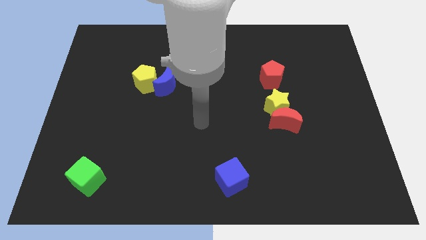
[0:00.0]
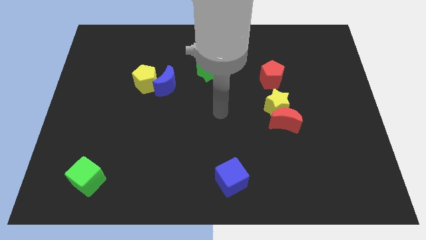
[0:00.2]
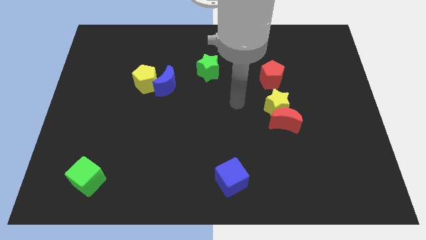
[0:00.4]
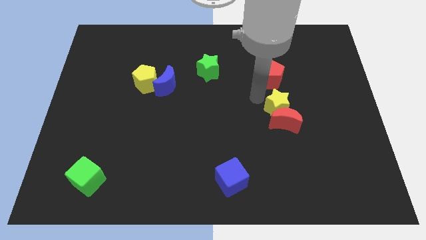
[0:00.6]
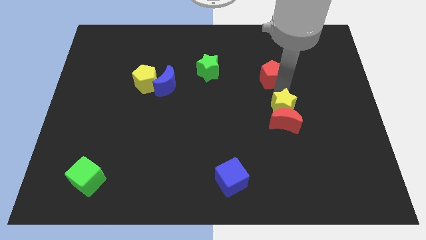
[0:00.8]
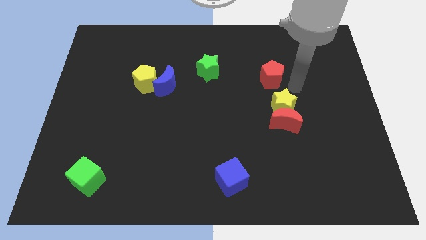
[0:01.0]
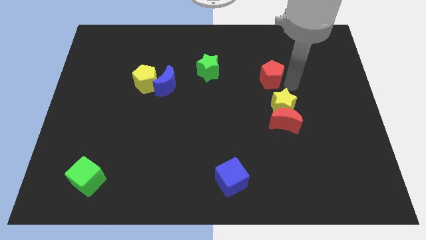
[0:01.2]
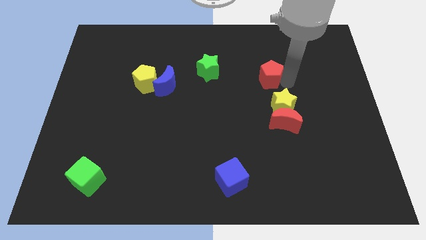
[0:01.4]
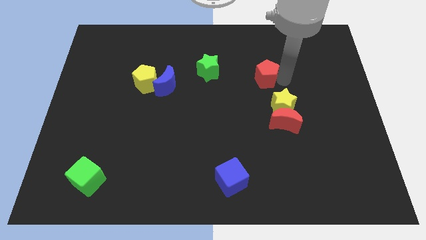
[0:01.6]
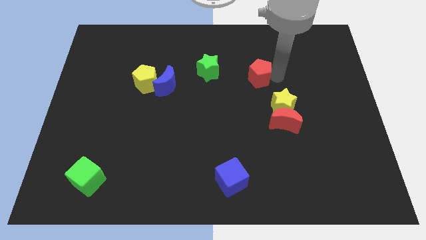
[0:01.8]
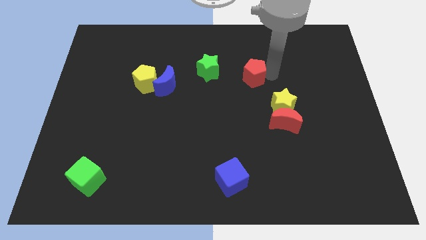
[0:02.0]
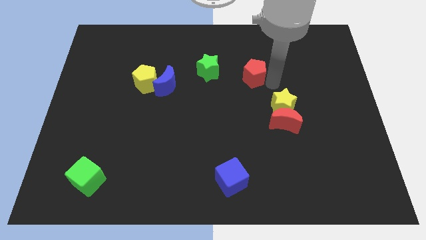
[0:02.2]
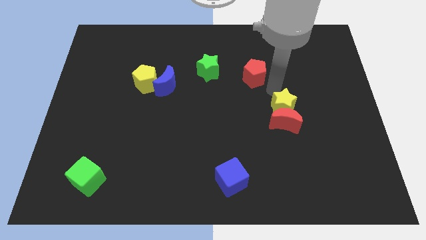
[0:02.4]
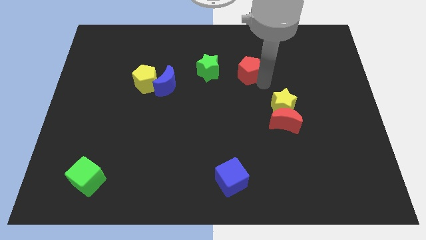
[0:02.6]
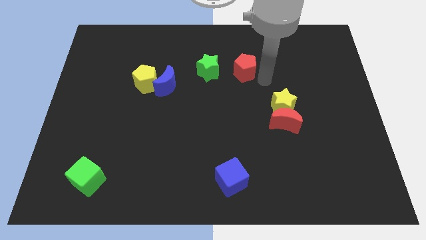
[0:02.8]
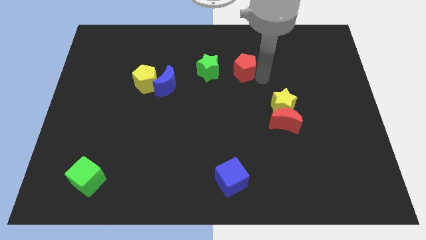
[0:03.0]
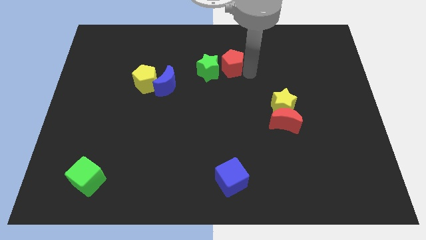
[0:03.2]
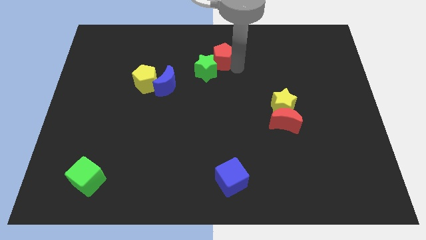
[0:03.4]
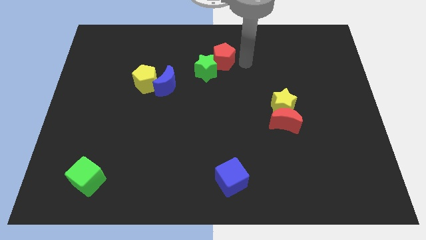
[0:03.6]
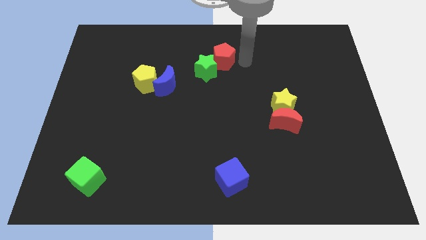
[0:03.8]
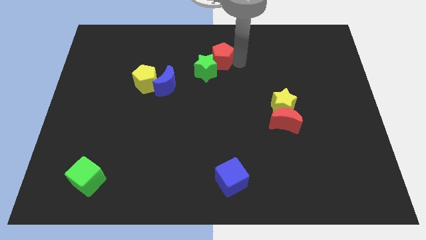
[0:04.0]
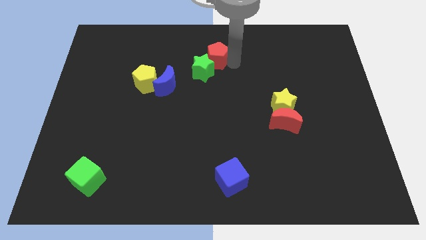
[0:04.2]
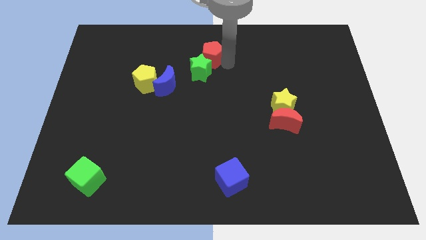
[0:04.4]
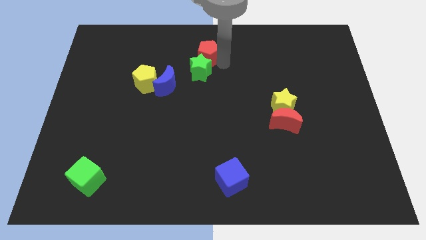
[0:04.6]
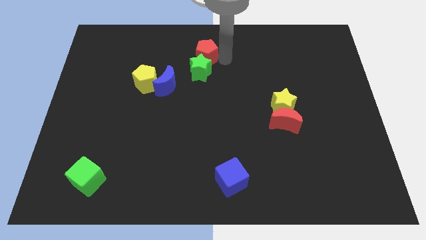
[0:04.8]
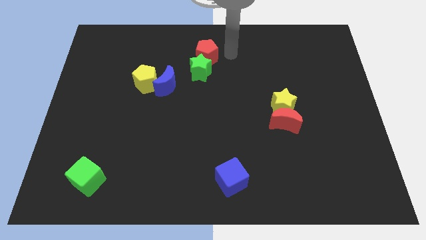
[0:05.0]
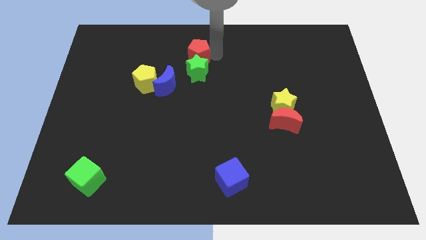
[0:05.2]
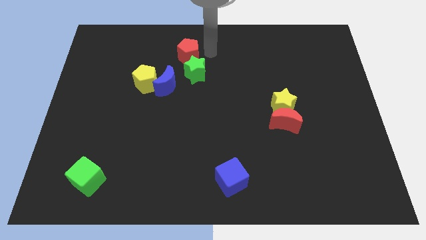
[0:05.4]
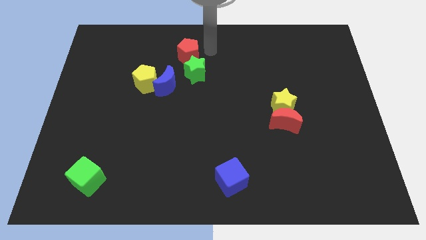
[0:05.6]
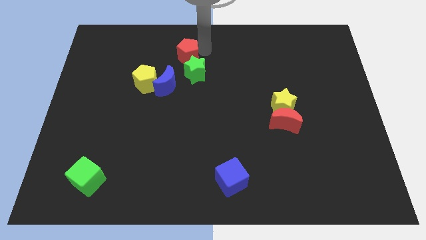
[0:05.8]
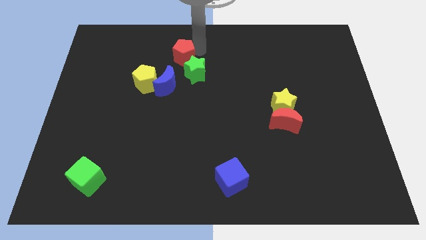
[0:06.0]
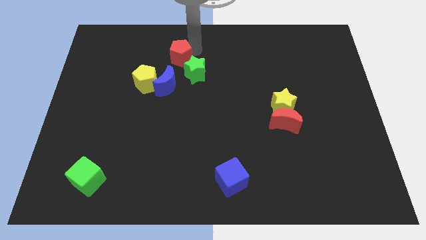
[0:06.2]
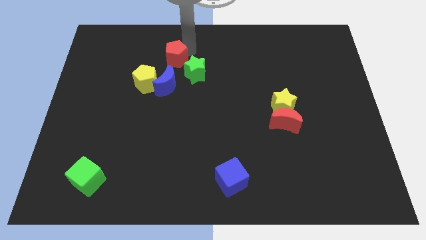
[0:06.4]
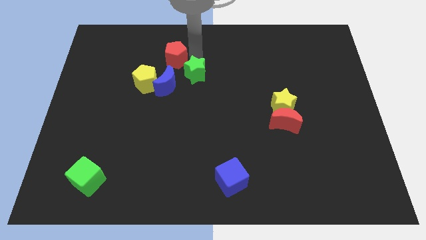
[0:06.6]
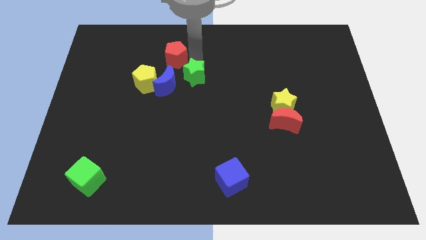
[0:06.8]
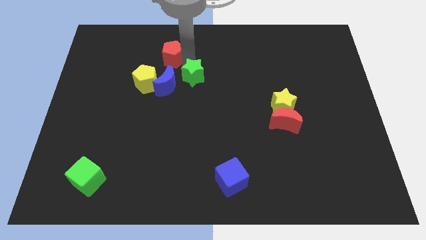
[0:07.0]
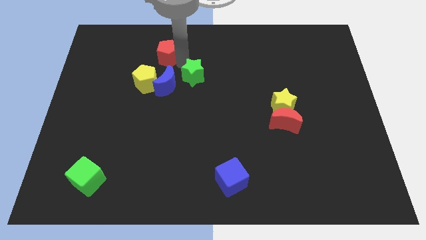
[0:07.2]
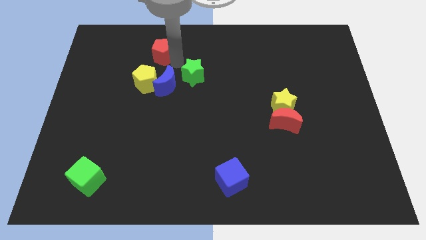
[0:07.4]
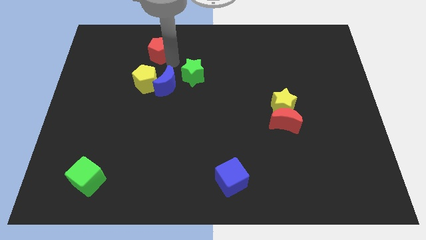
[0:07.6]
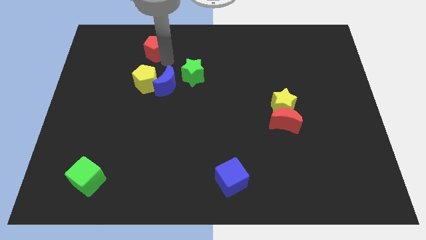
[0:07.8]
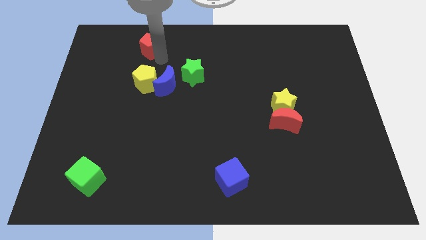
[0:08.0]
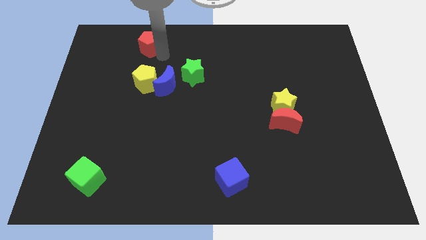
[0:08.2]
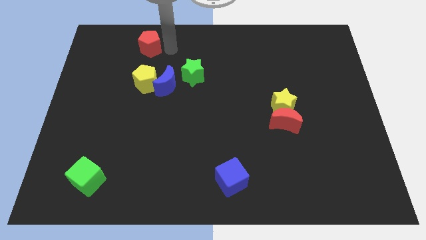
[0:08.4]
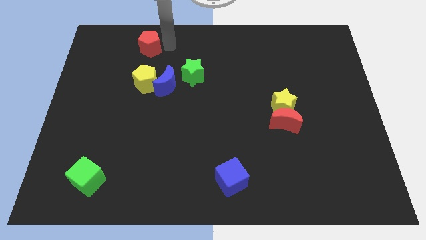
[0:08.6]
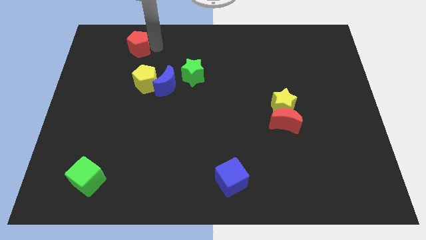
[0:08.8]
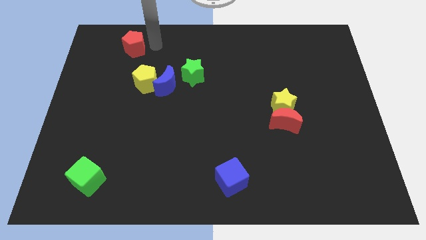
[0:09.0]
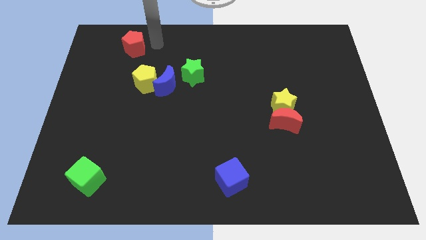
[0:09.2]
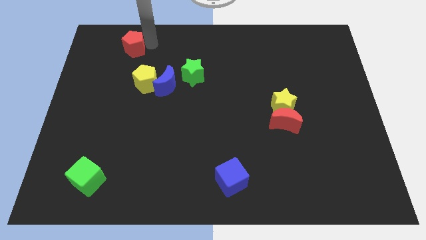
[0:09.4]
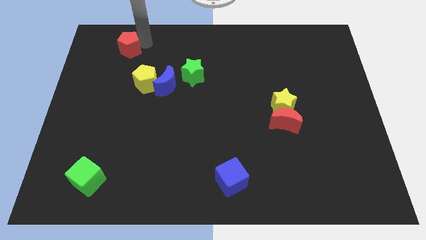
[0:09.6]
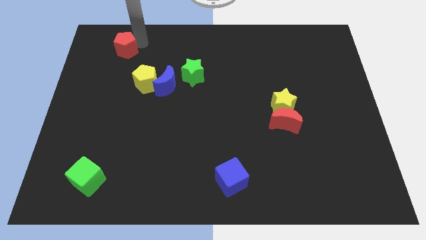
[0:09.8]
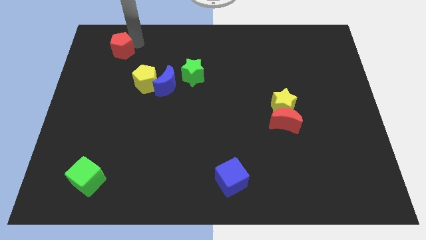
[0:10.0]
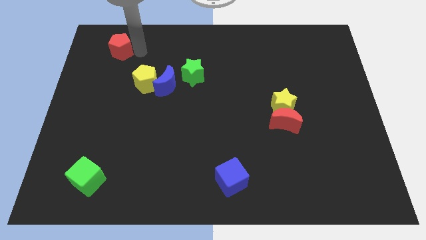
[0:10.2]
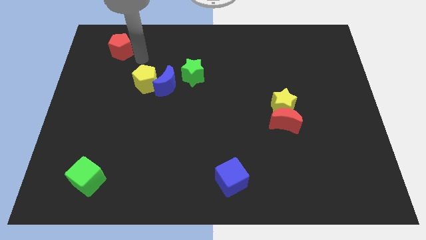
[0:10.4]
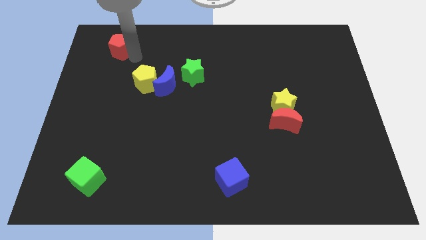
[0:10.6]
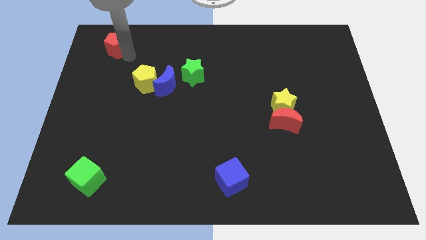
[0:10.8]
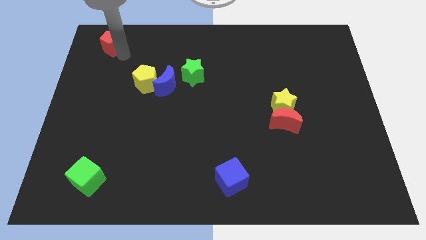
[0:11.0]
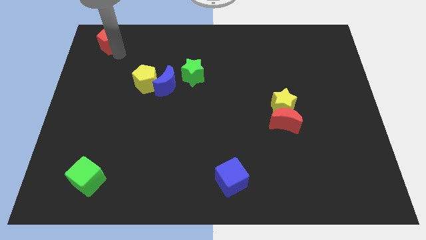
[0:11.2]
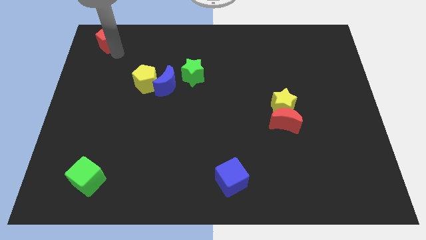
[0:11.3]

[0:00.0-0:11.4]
push the red pentagon to the upper left corner

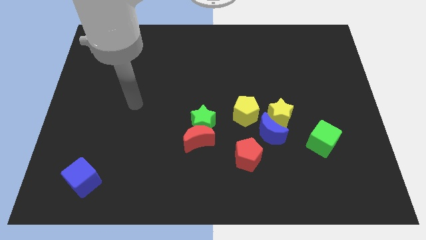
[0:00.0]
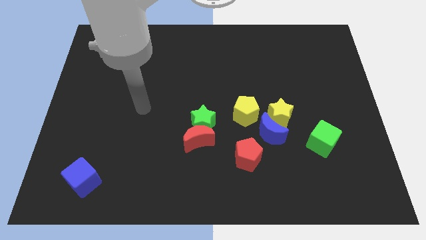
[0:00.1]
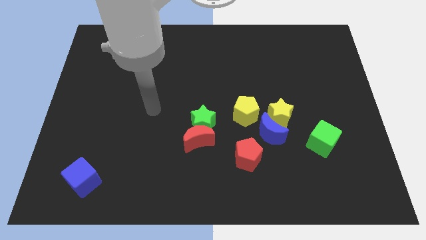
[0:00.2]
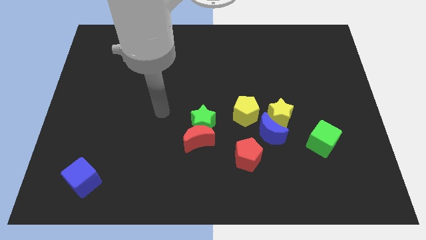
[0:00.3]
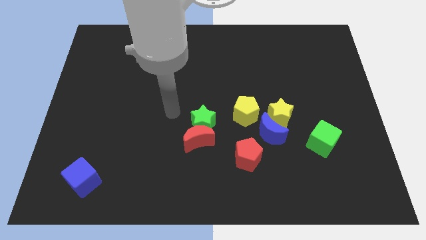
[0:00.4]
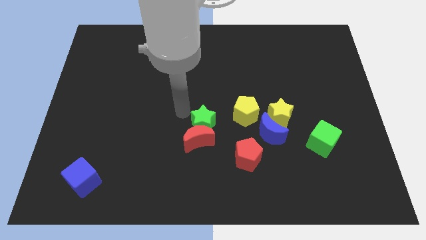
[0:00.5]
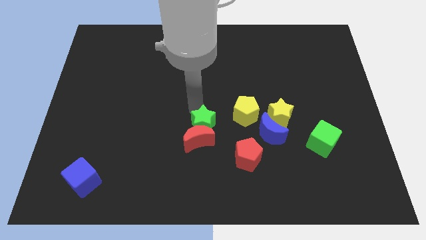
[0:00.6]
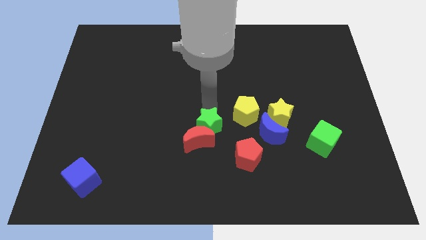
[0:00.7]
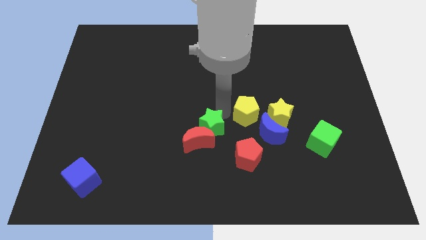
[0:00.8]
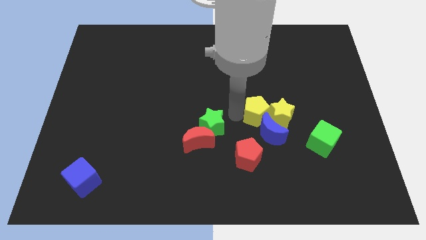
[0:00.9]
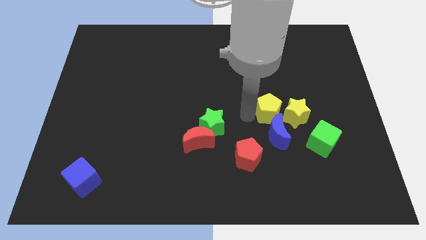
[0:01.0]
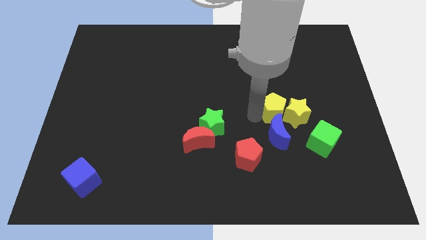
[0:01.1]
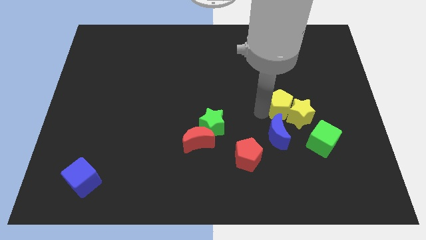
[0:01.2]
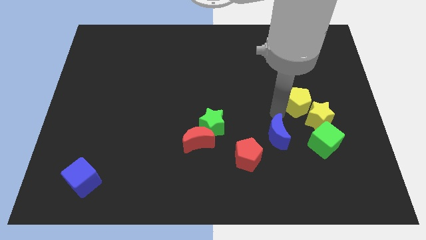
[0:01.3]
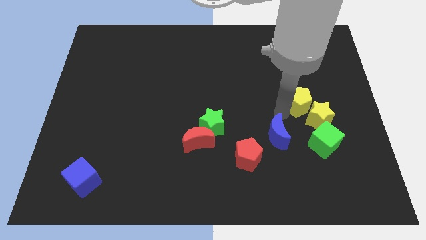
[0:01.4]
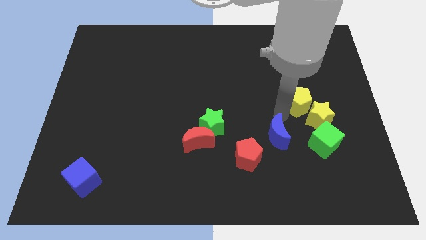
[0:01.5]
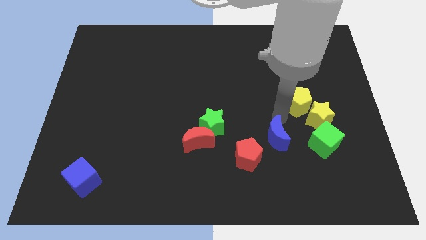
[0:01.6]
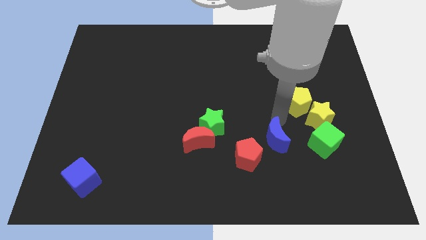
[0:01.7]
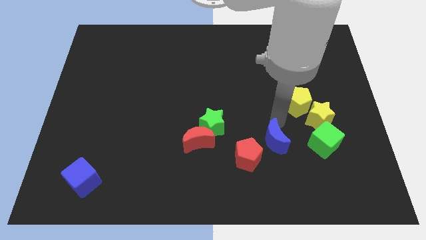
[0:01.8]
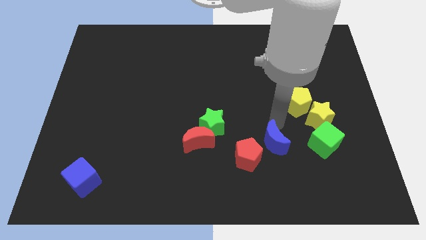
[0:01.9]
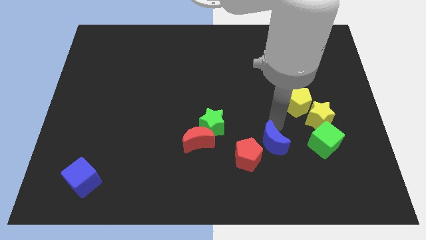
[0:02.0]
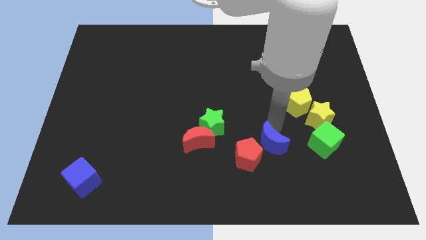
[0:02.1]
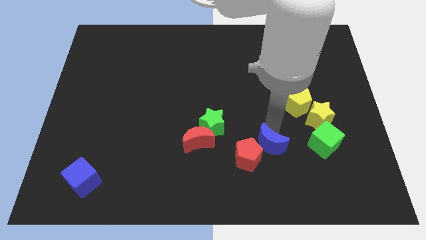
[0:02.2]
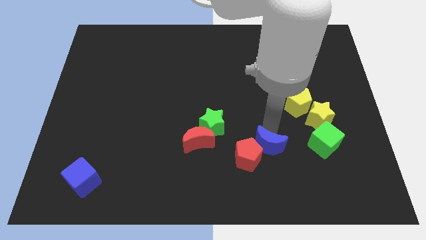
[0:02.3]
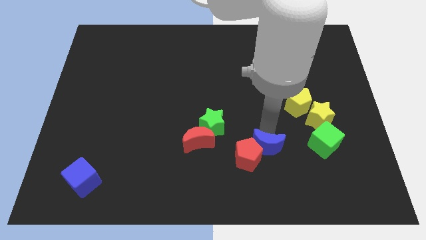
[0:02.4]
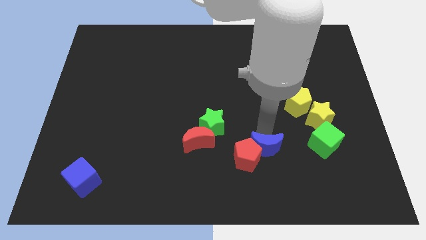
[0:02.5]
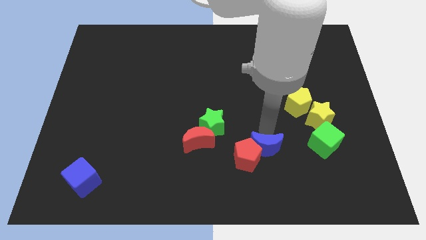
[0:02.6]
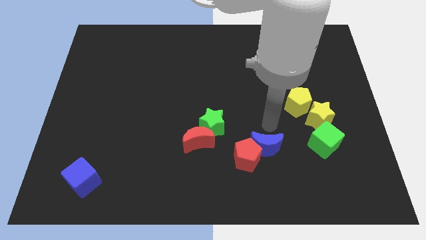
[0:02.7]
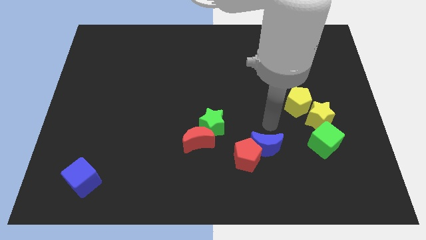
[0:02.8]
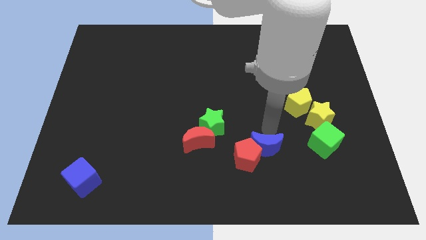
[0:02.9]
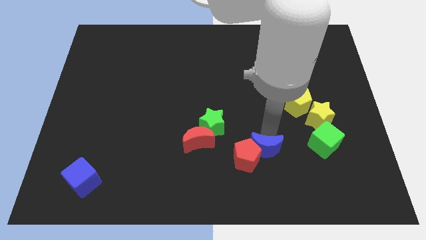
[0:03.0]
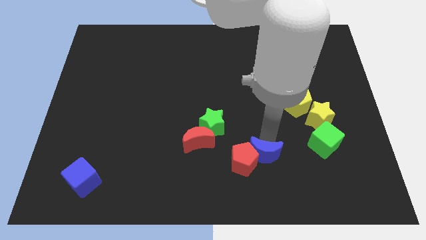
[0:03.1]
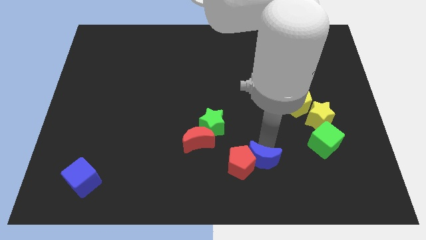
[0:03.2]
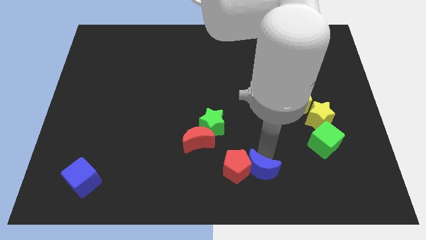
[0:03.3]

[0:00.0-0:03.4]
put the blue moon to the bottom
